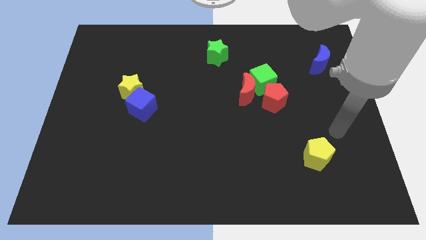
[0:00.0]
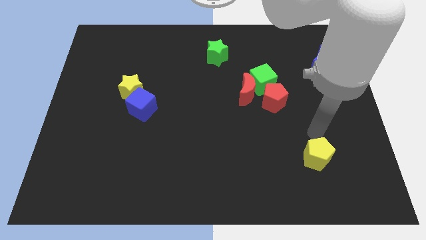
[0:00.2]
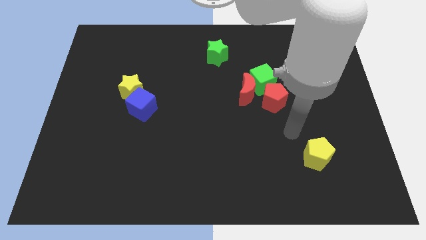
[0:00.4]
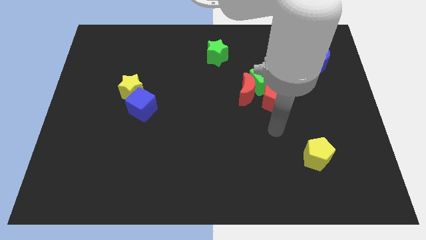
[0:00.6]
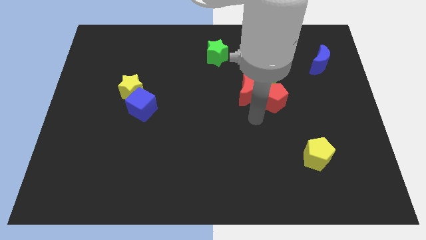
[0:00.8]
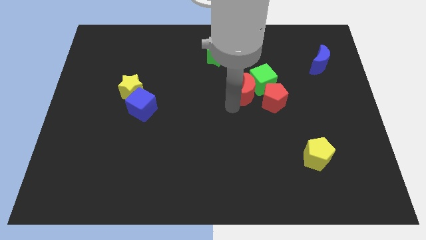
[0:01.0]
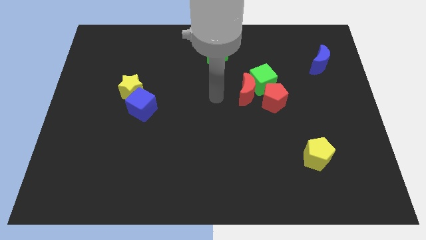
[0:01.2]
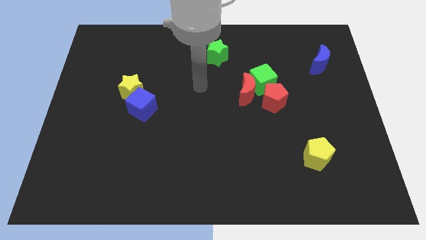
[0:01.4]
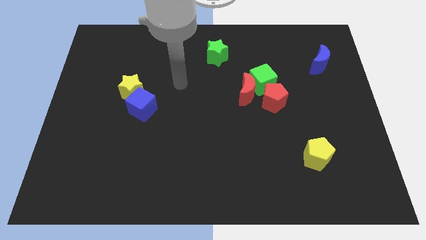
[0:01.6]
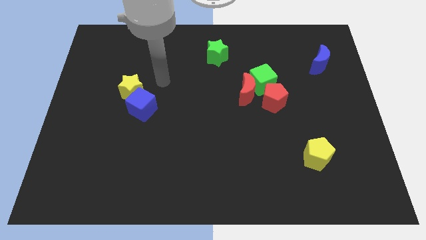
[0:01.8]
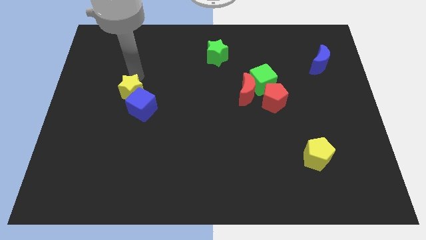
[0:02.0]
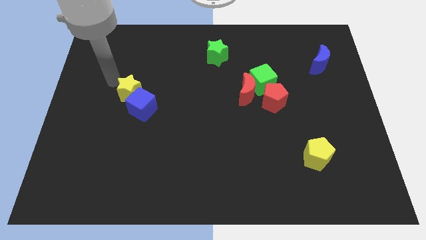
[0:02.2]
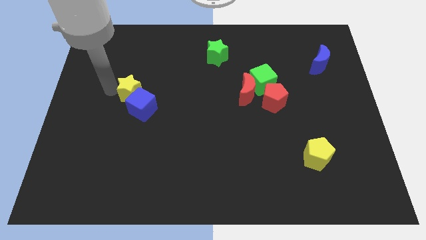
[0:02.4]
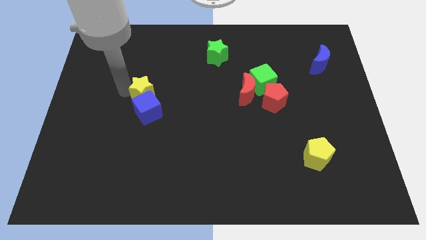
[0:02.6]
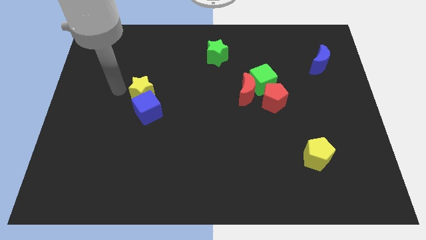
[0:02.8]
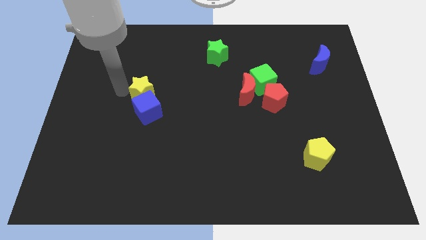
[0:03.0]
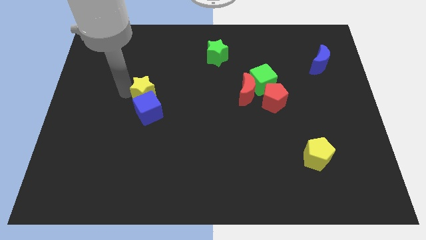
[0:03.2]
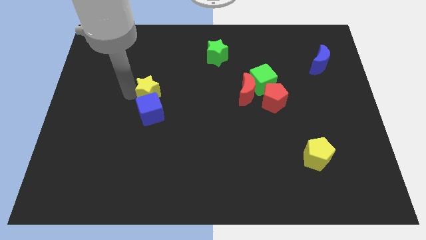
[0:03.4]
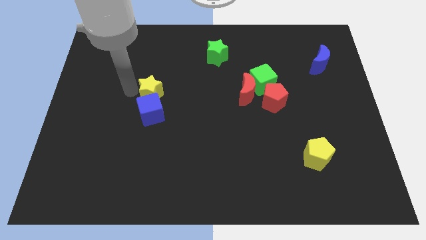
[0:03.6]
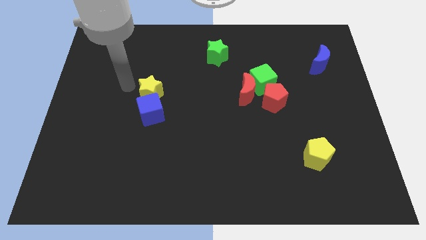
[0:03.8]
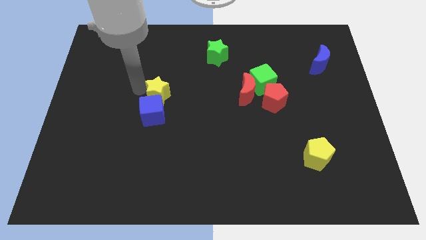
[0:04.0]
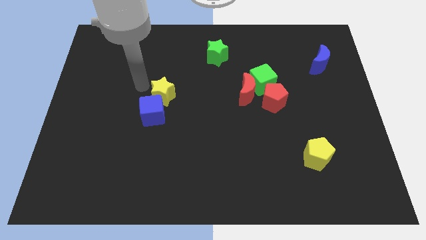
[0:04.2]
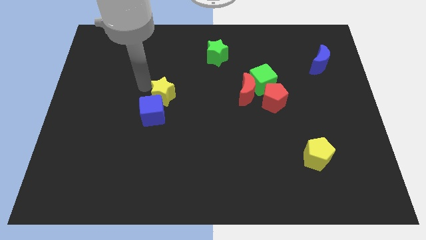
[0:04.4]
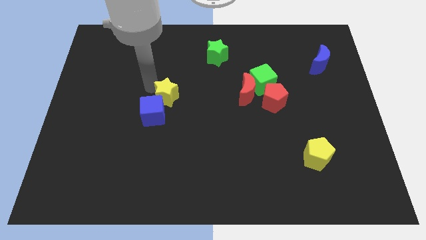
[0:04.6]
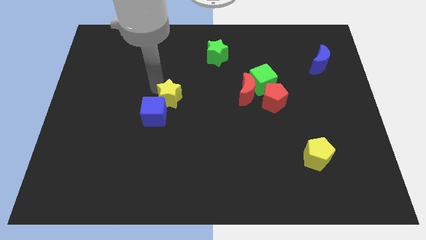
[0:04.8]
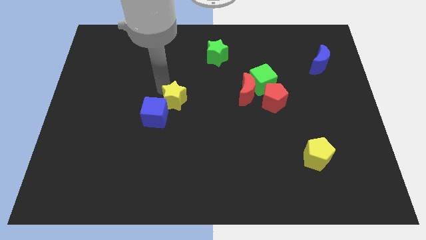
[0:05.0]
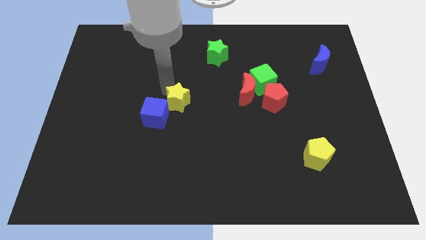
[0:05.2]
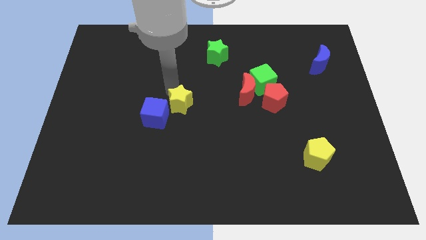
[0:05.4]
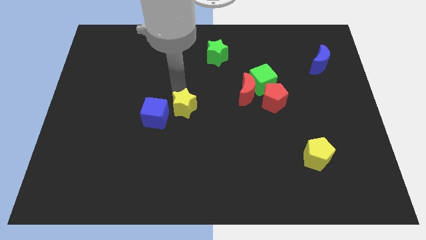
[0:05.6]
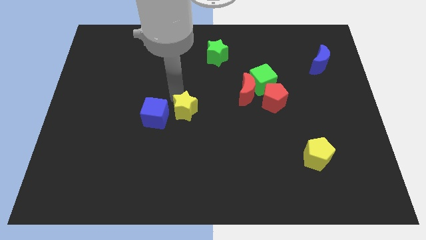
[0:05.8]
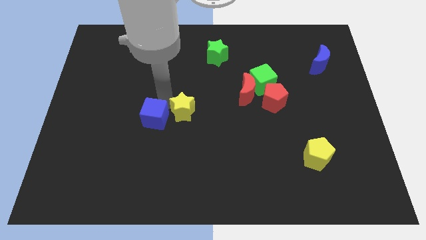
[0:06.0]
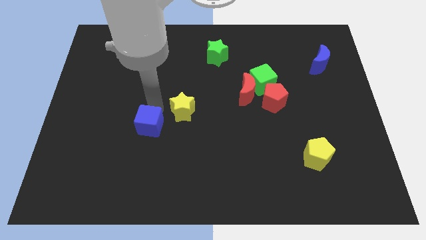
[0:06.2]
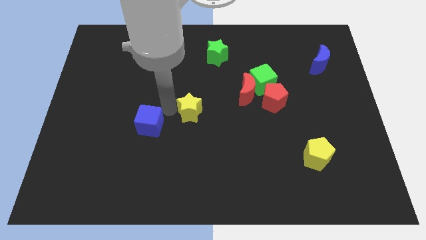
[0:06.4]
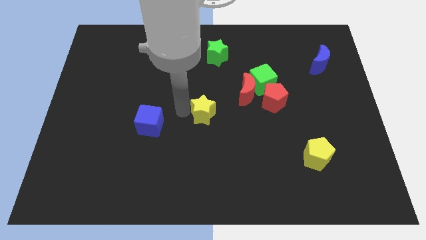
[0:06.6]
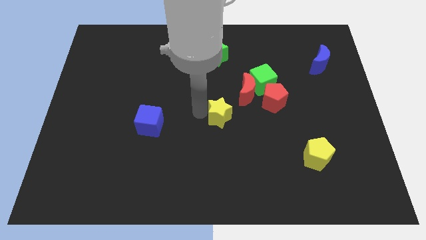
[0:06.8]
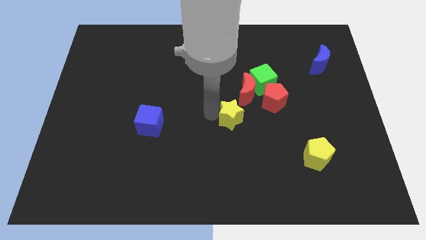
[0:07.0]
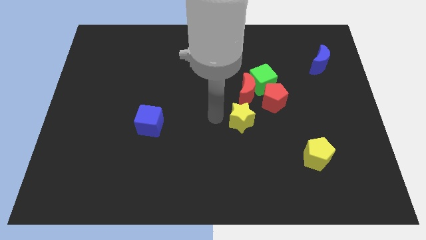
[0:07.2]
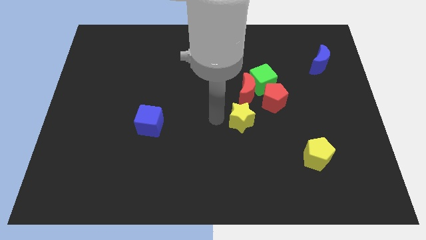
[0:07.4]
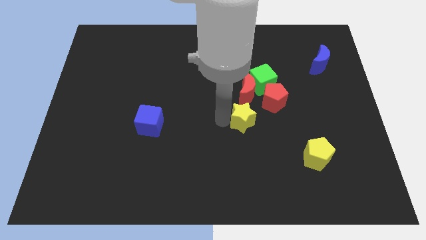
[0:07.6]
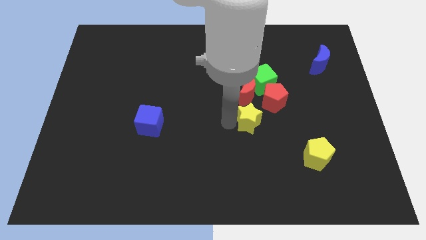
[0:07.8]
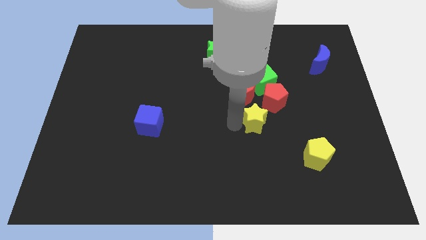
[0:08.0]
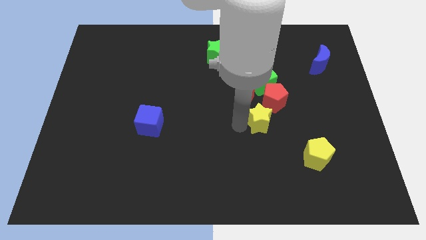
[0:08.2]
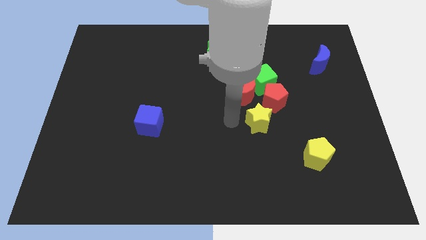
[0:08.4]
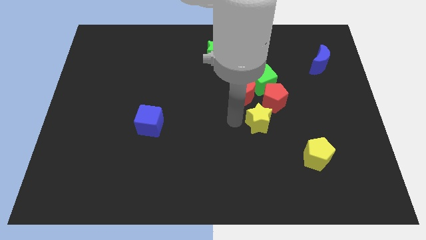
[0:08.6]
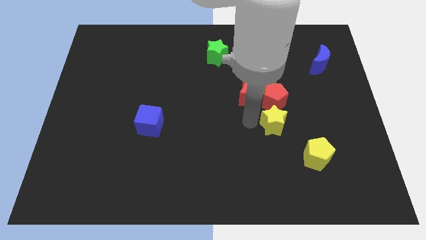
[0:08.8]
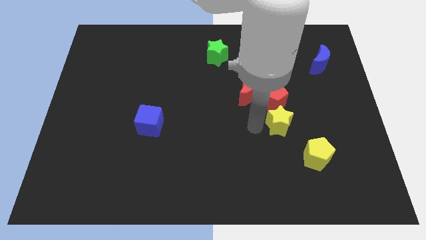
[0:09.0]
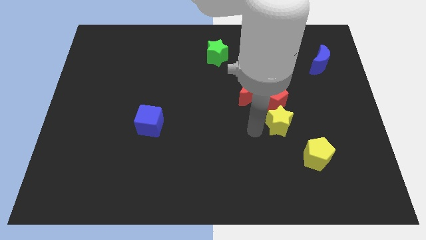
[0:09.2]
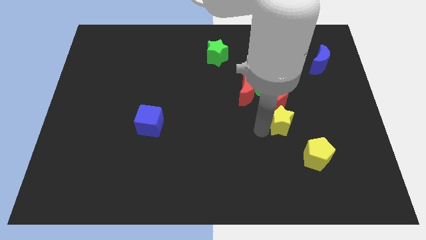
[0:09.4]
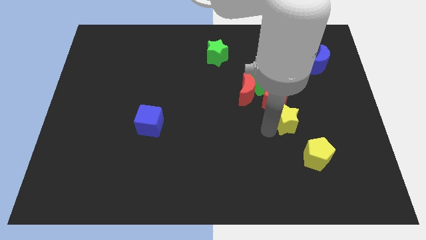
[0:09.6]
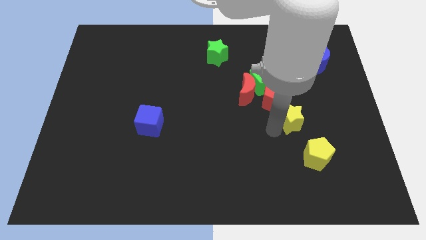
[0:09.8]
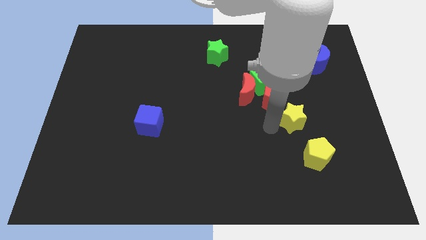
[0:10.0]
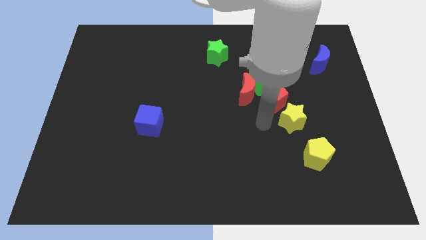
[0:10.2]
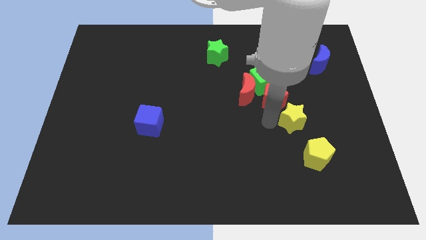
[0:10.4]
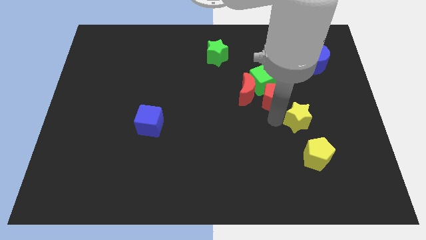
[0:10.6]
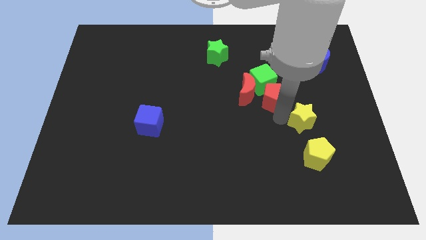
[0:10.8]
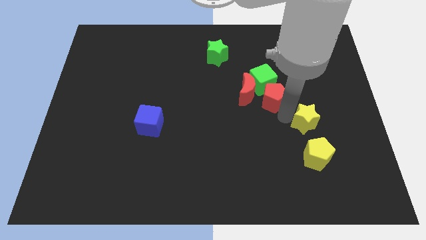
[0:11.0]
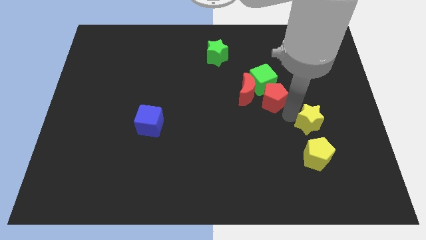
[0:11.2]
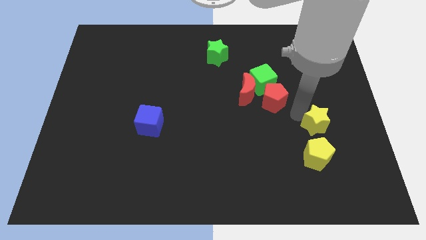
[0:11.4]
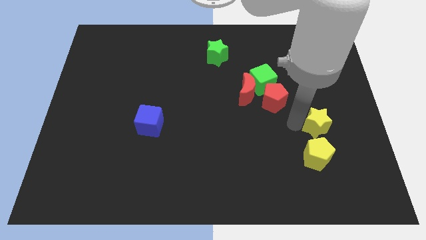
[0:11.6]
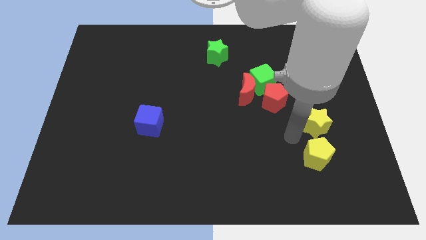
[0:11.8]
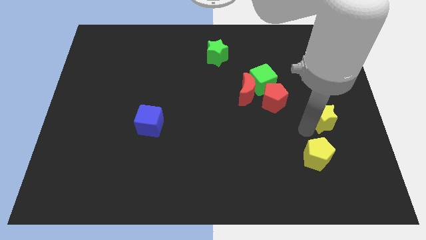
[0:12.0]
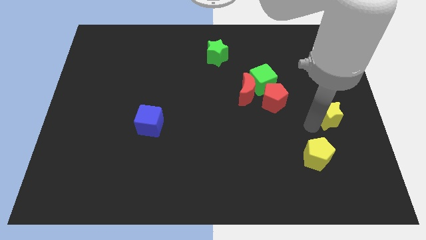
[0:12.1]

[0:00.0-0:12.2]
push the yellow star to the right side of the board
